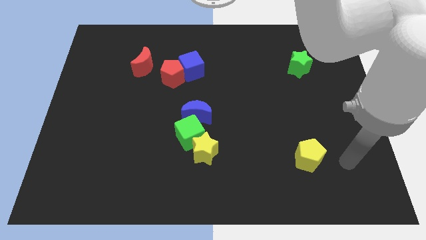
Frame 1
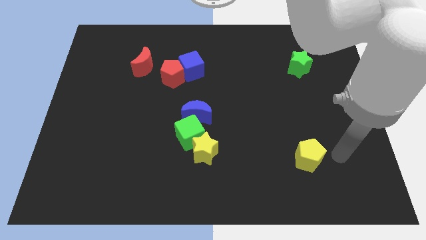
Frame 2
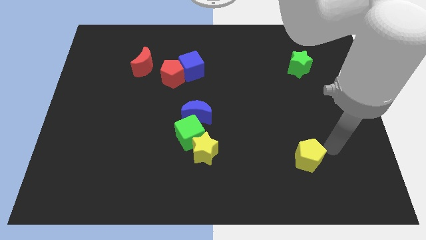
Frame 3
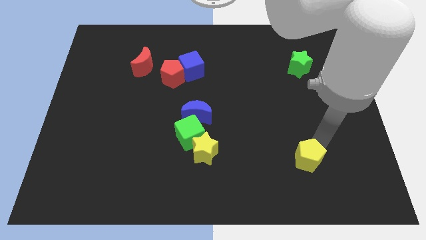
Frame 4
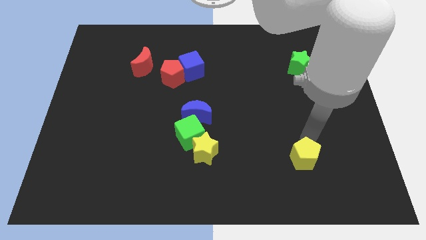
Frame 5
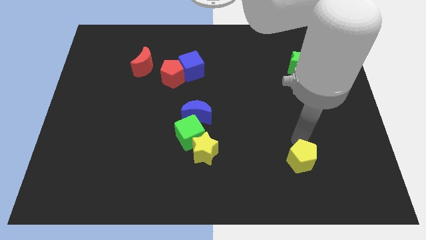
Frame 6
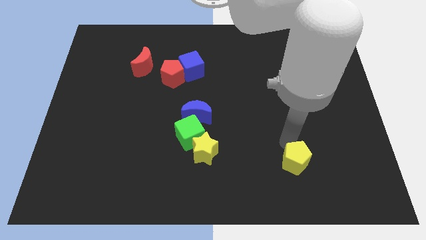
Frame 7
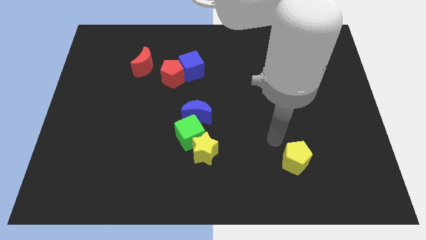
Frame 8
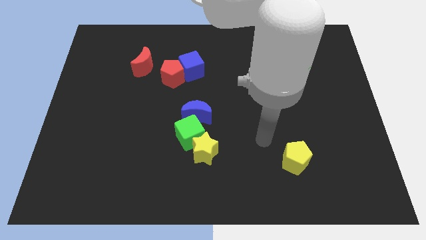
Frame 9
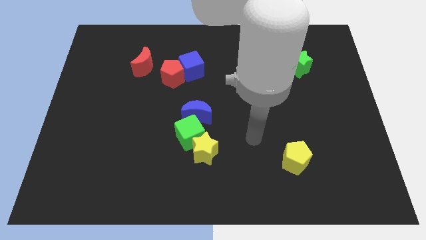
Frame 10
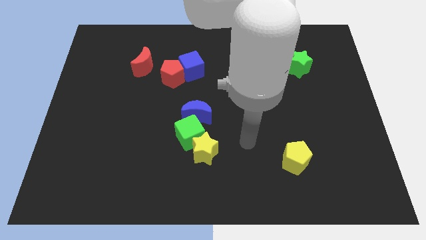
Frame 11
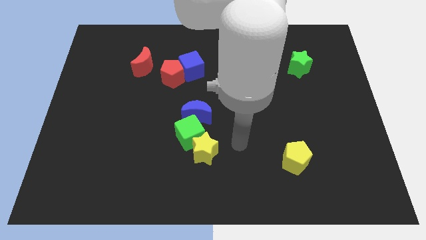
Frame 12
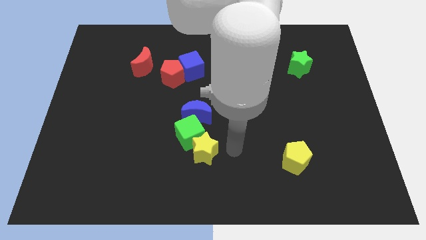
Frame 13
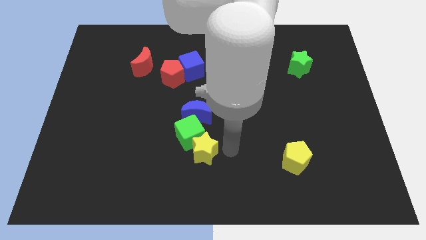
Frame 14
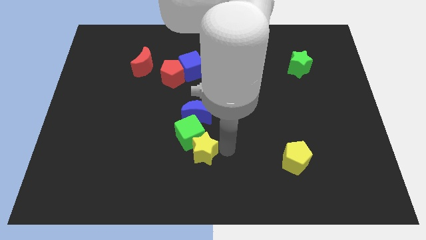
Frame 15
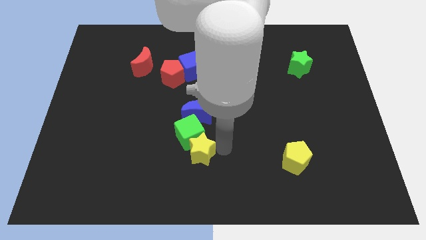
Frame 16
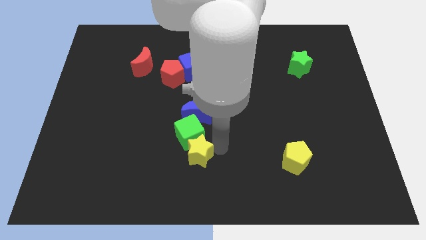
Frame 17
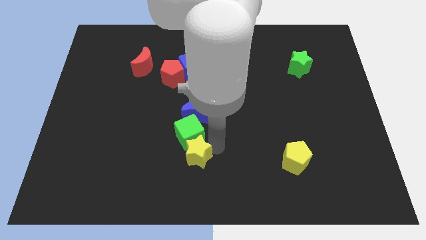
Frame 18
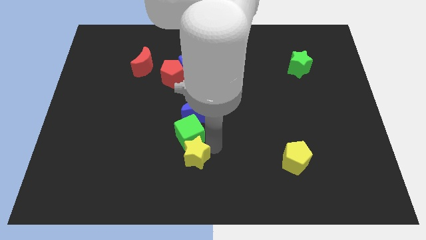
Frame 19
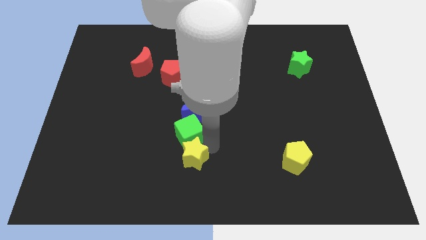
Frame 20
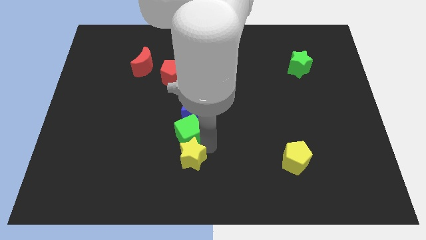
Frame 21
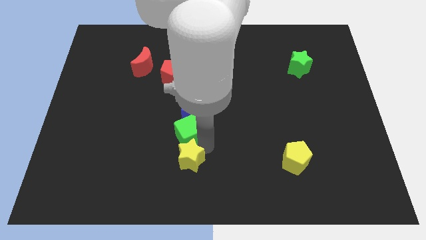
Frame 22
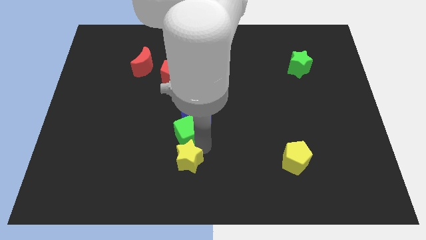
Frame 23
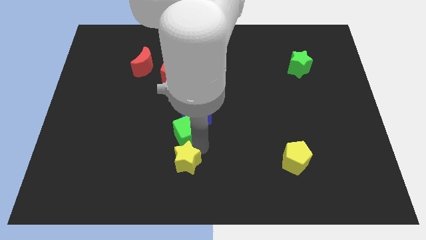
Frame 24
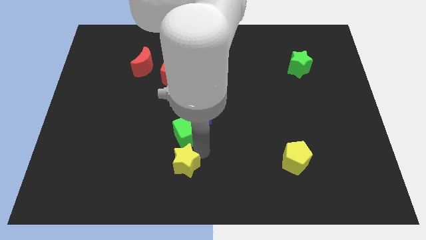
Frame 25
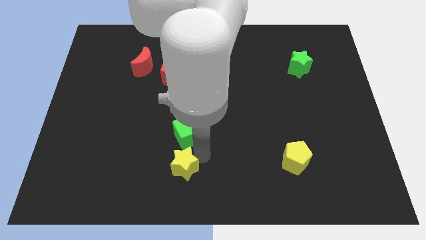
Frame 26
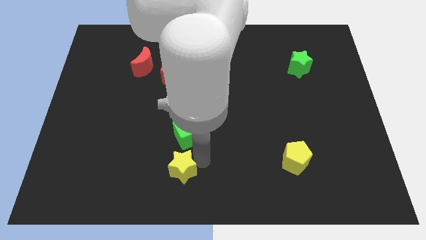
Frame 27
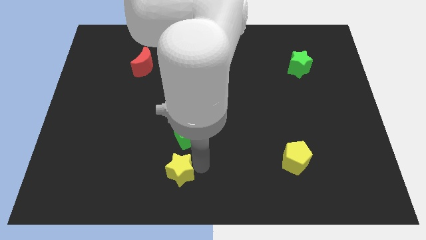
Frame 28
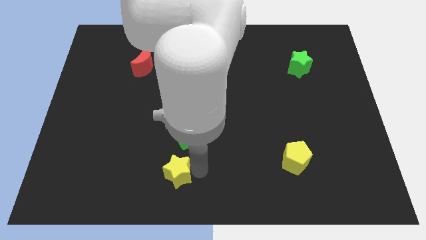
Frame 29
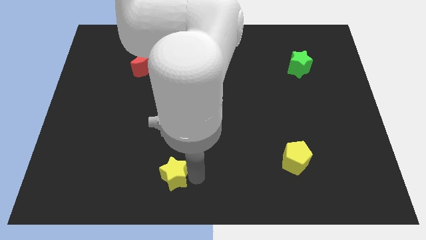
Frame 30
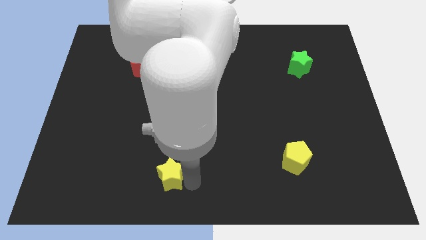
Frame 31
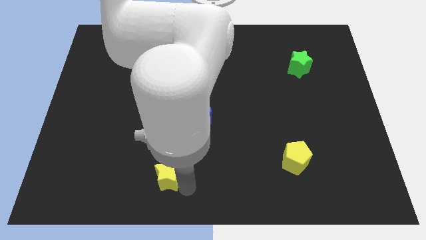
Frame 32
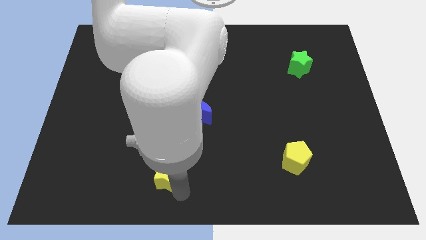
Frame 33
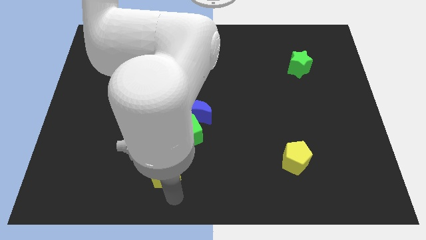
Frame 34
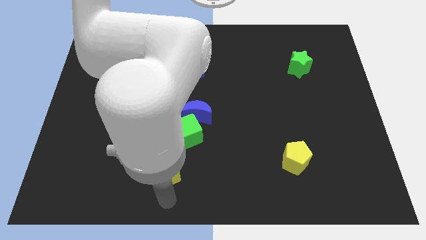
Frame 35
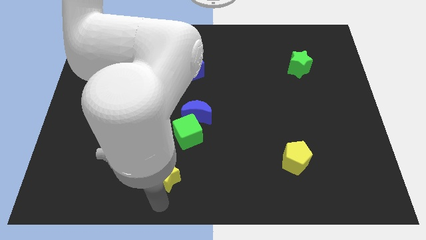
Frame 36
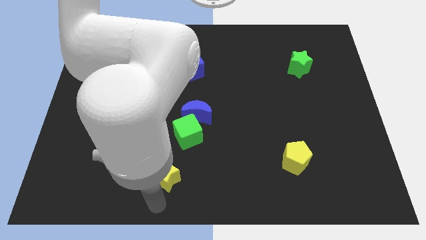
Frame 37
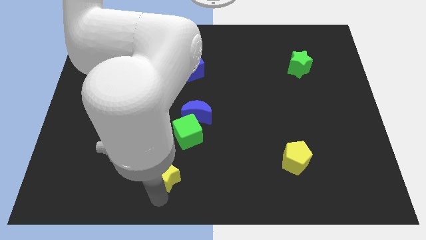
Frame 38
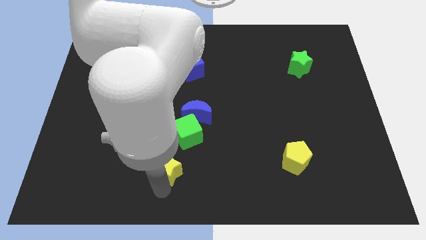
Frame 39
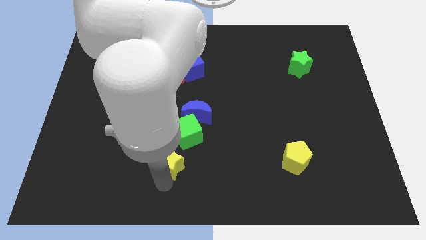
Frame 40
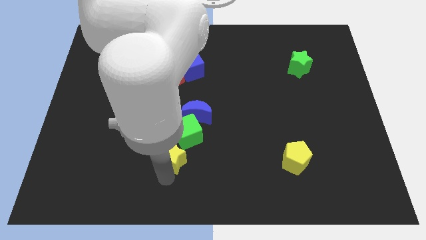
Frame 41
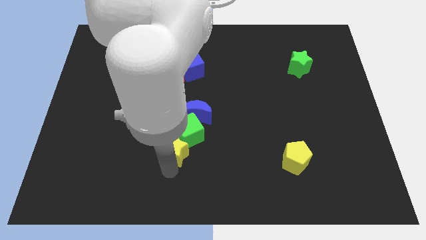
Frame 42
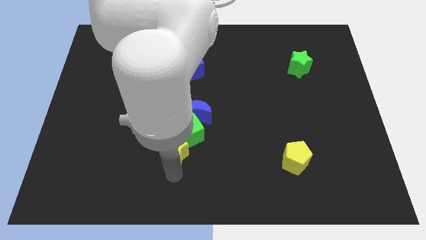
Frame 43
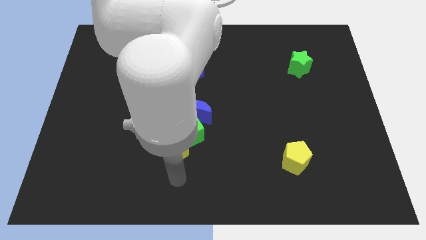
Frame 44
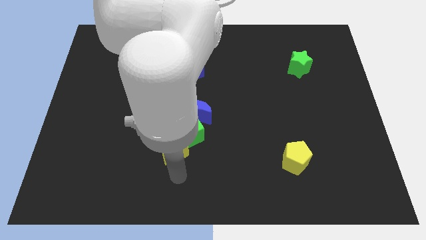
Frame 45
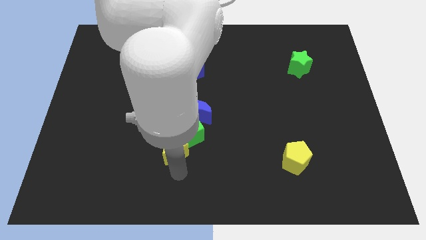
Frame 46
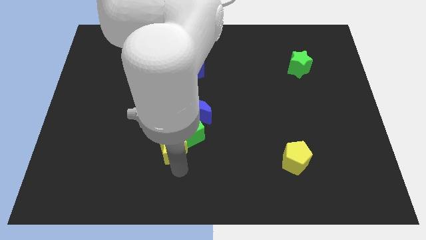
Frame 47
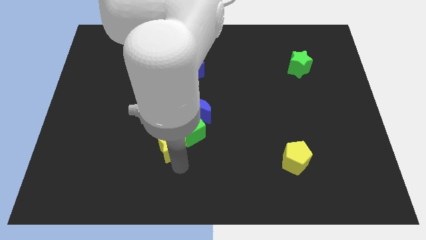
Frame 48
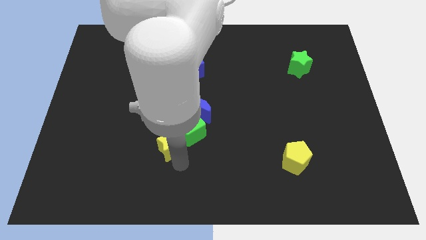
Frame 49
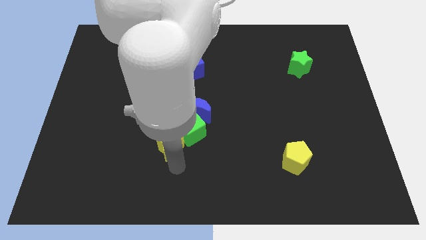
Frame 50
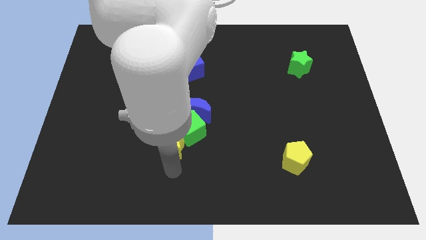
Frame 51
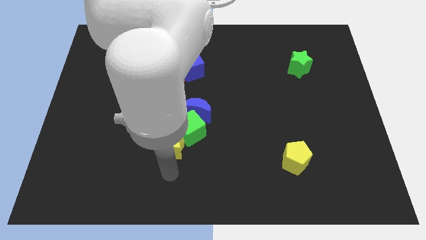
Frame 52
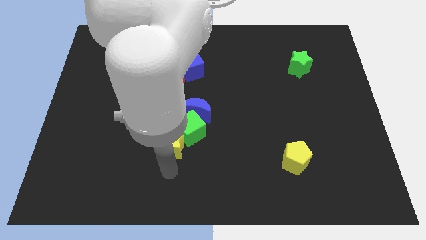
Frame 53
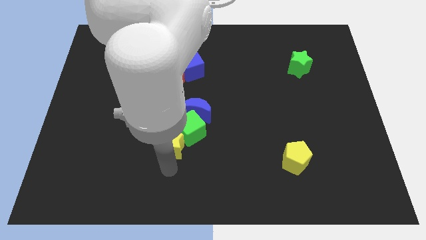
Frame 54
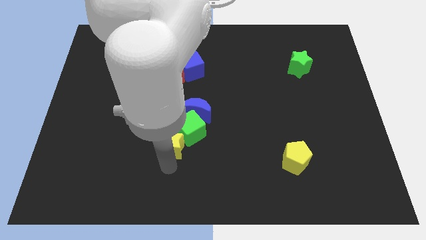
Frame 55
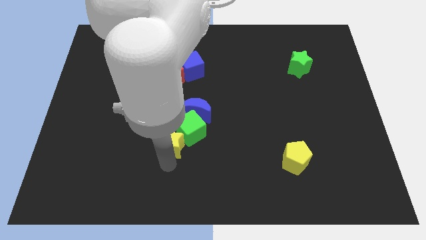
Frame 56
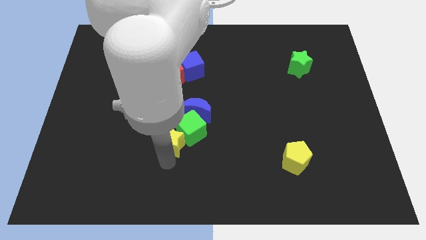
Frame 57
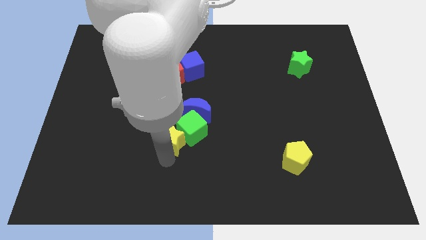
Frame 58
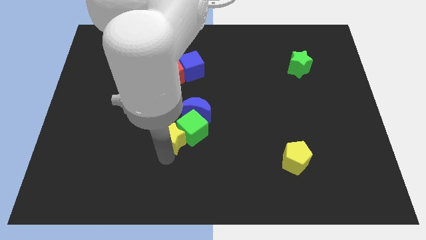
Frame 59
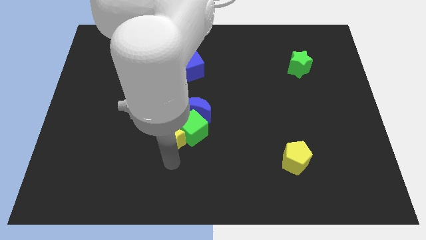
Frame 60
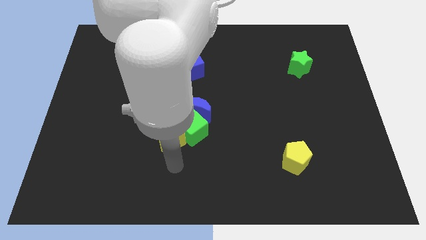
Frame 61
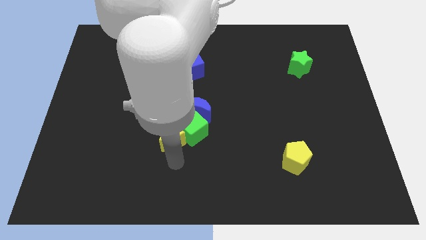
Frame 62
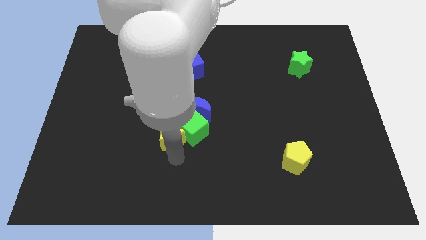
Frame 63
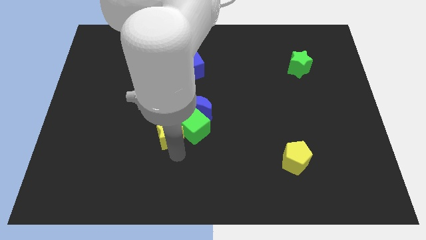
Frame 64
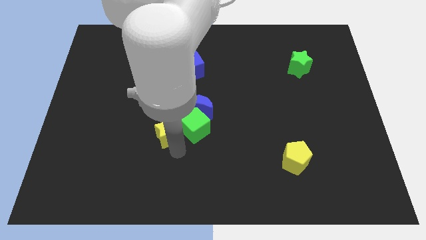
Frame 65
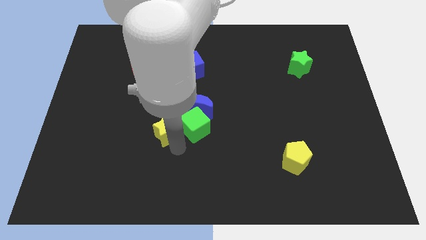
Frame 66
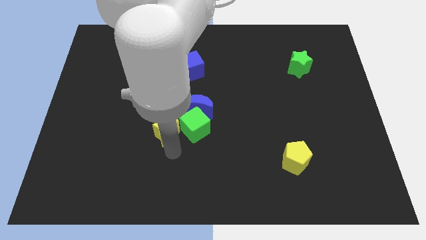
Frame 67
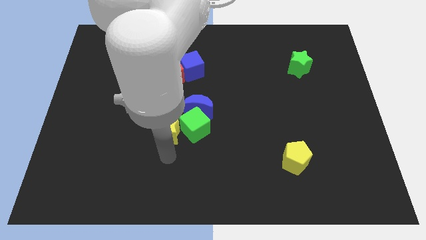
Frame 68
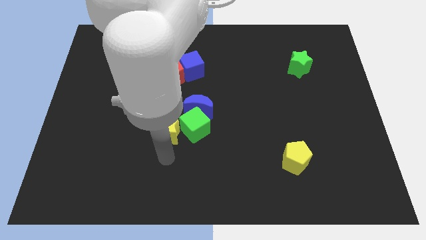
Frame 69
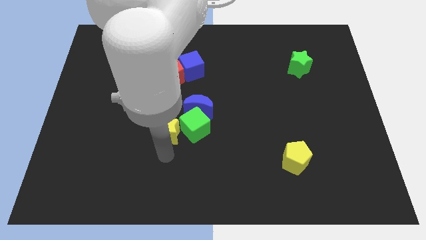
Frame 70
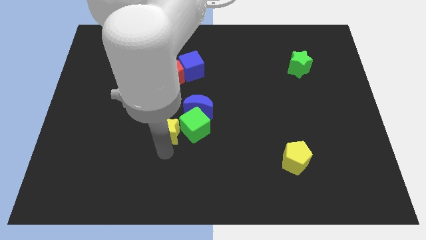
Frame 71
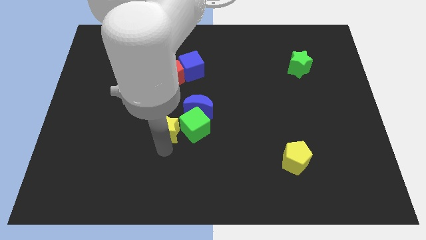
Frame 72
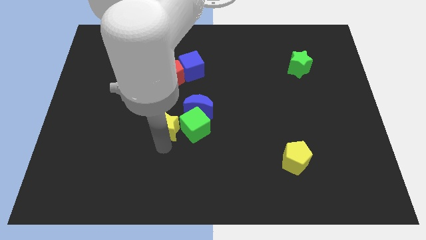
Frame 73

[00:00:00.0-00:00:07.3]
move the yellow star to the bottom side of the red pentagon

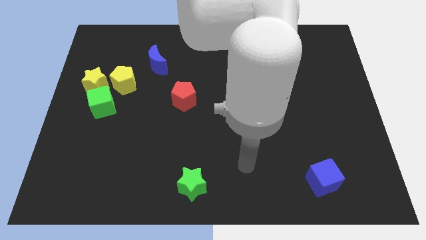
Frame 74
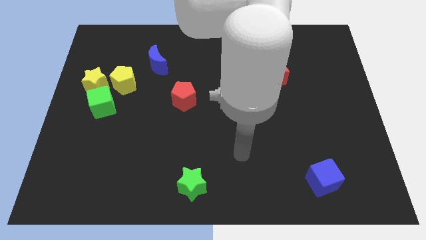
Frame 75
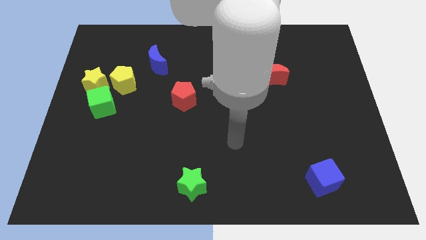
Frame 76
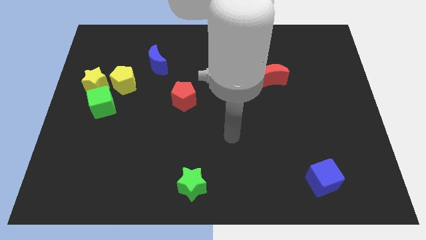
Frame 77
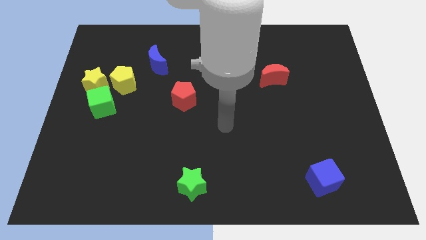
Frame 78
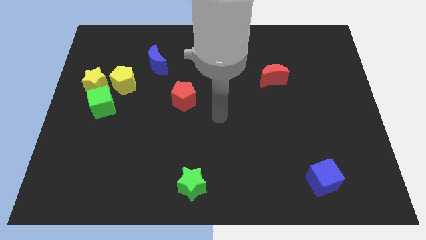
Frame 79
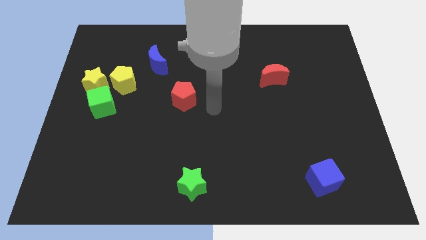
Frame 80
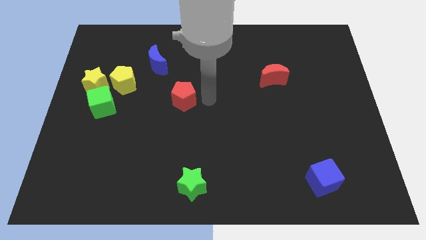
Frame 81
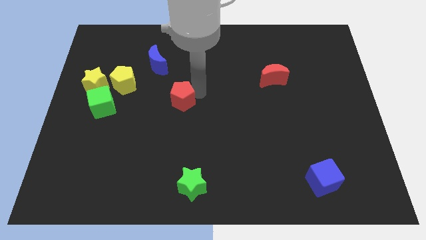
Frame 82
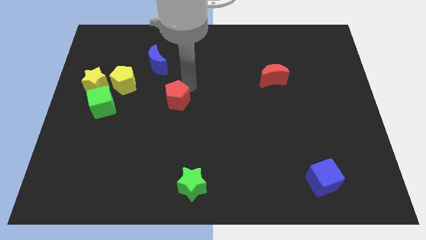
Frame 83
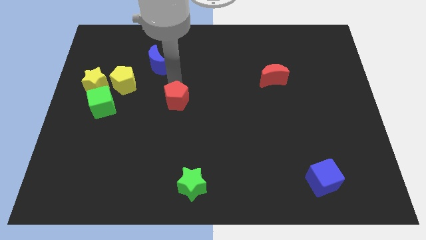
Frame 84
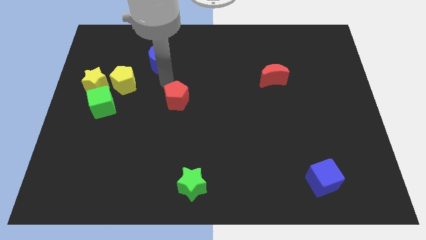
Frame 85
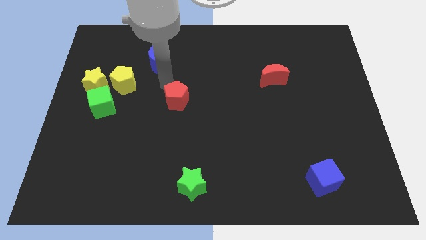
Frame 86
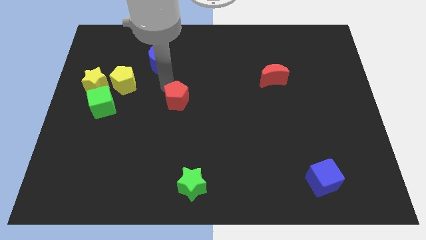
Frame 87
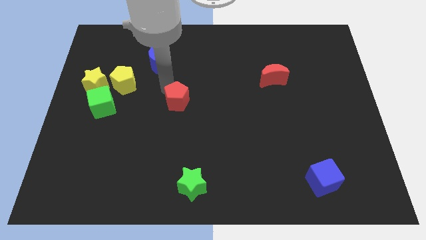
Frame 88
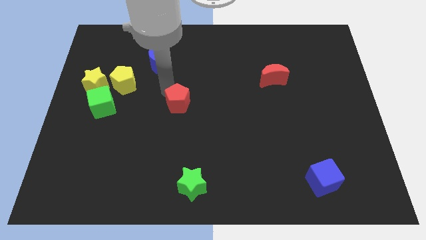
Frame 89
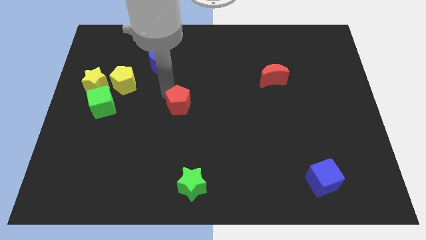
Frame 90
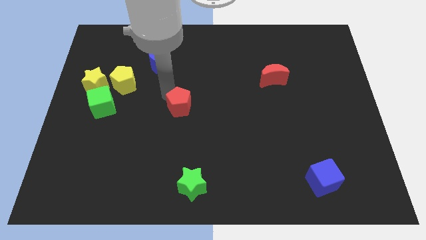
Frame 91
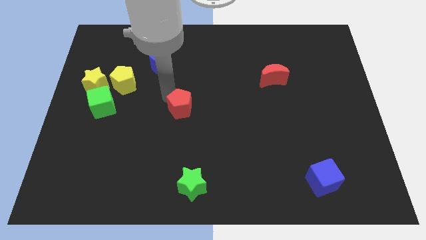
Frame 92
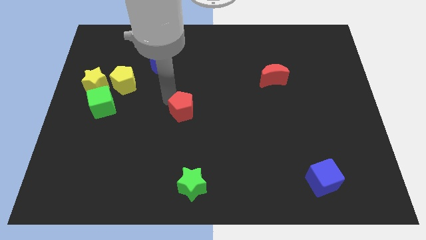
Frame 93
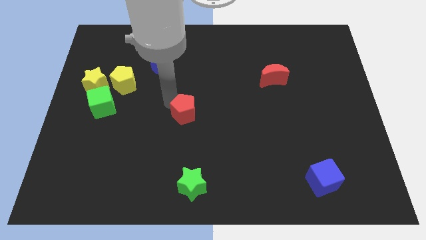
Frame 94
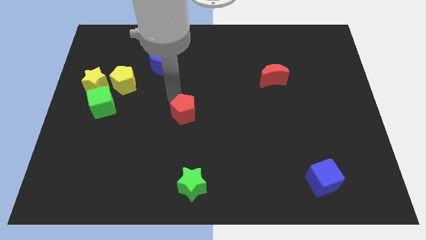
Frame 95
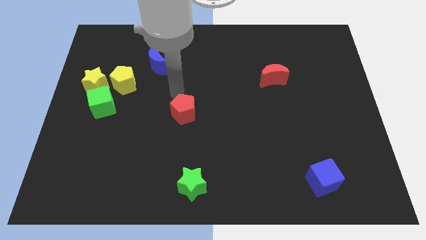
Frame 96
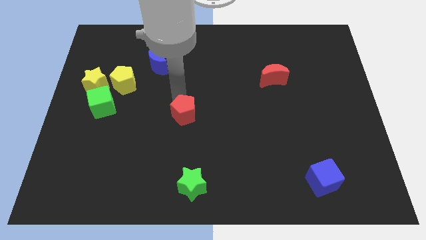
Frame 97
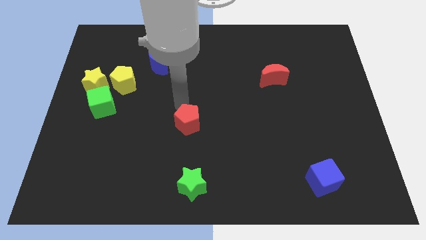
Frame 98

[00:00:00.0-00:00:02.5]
slide the red pentagon to the top of the green star
